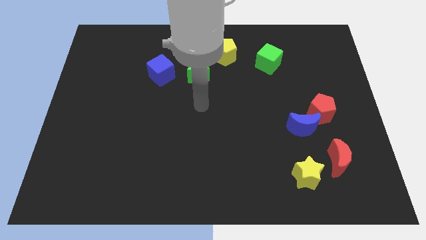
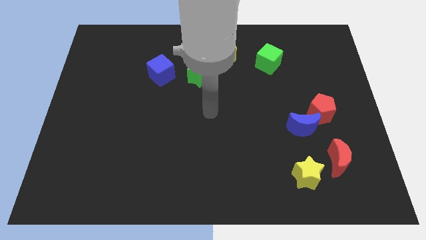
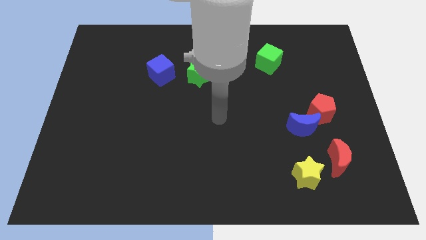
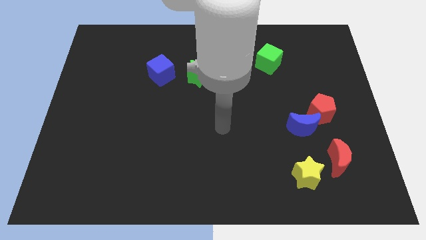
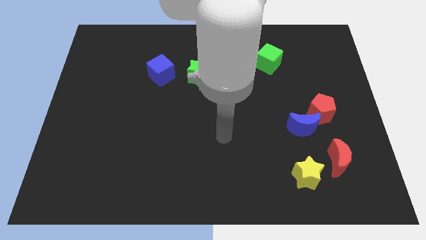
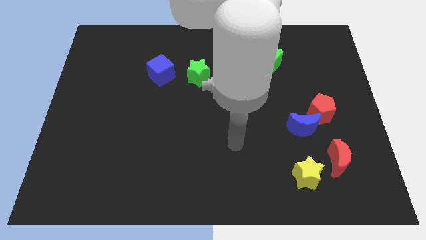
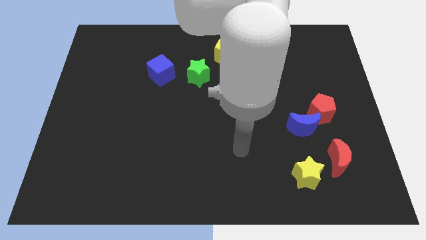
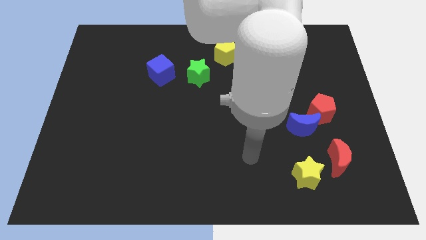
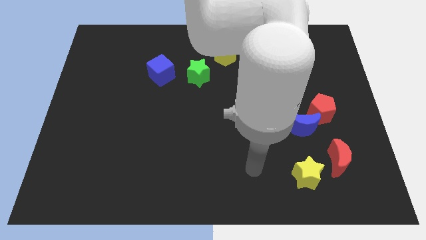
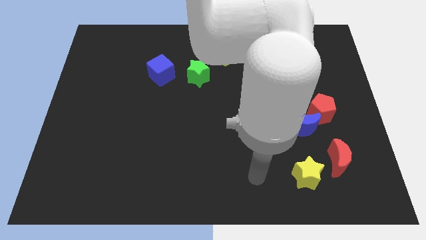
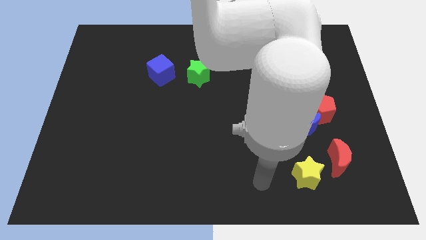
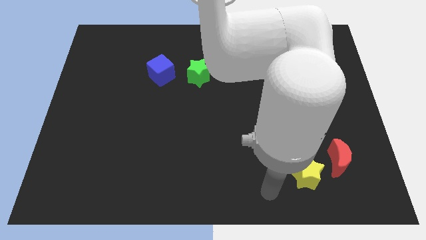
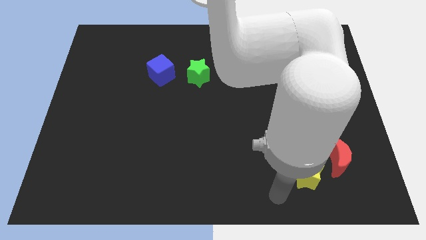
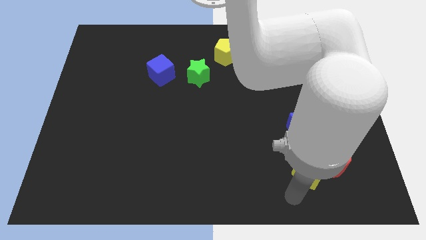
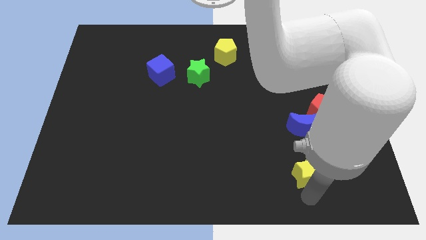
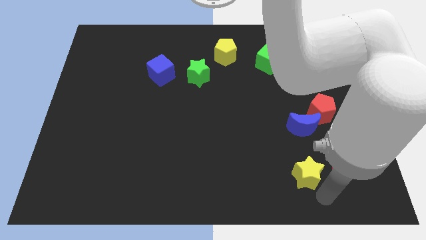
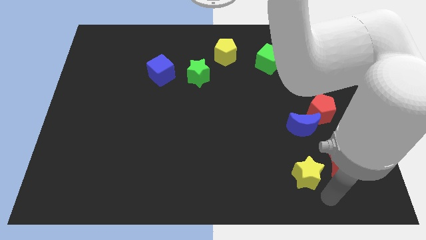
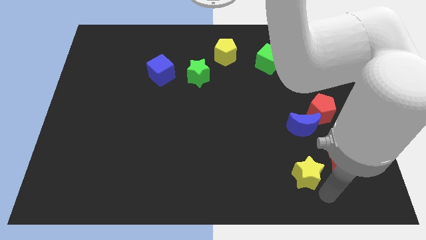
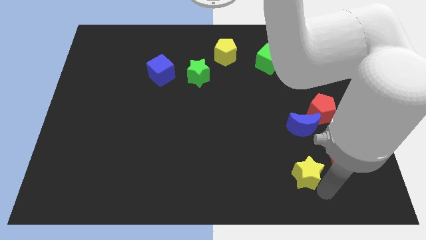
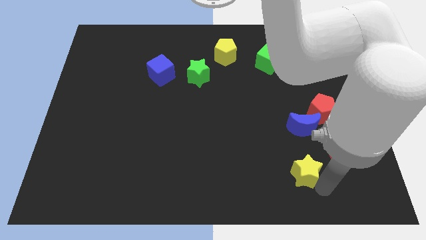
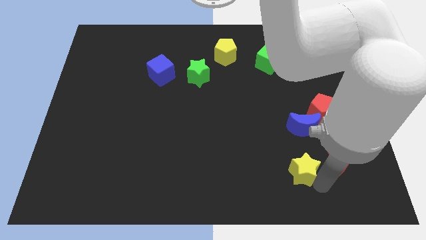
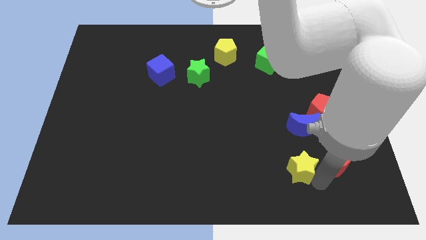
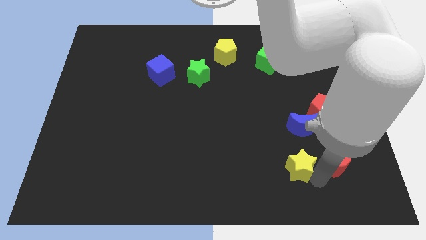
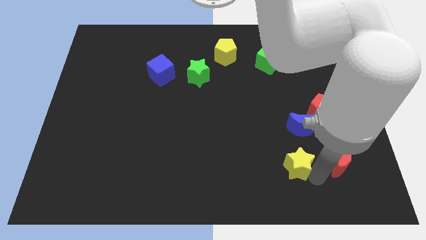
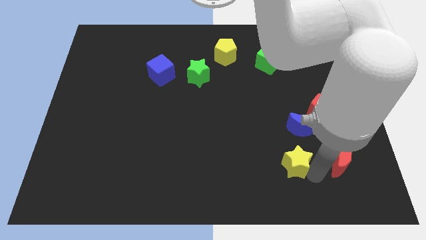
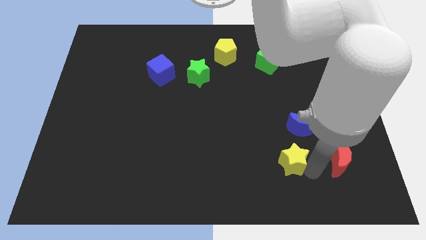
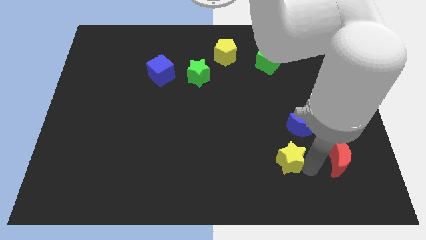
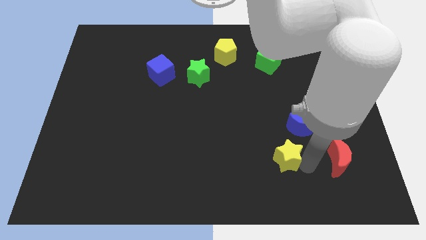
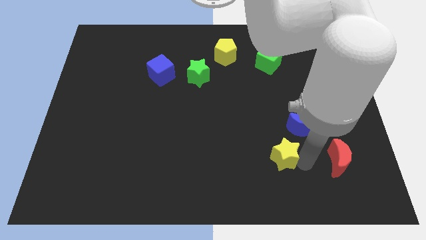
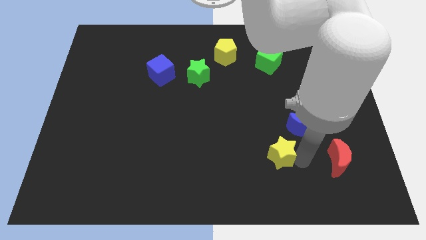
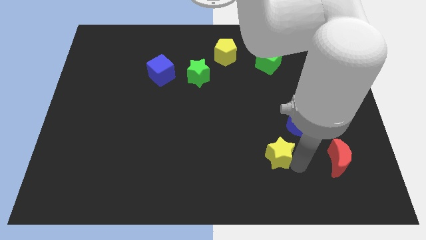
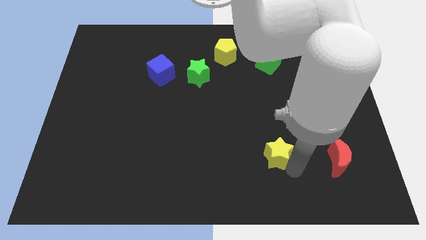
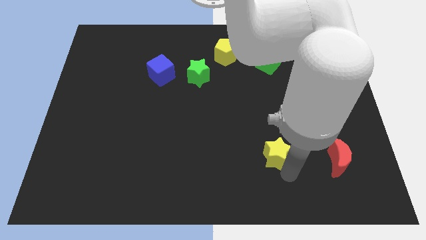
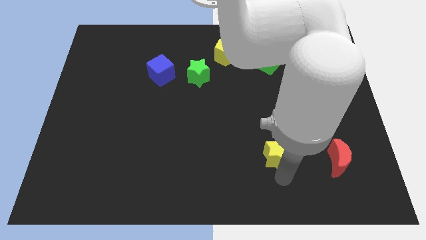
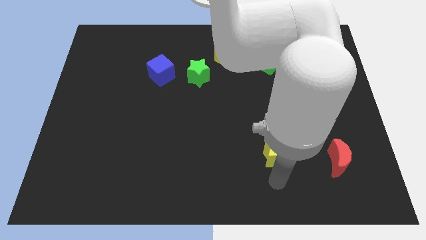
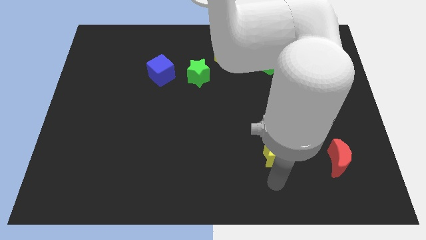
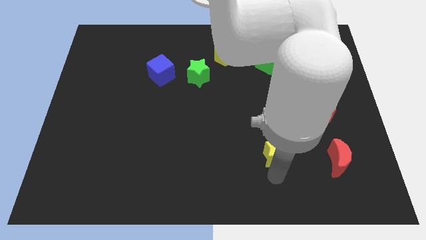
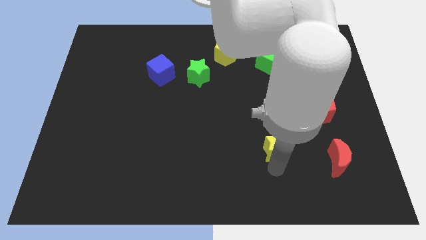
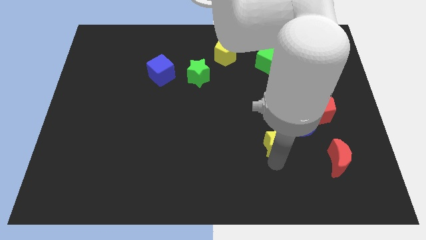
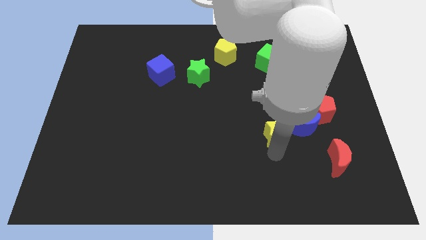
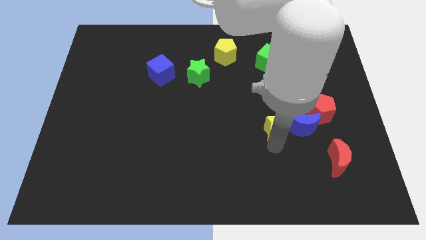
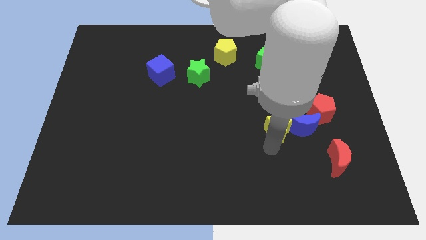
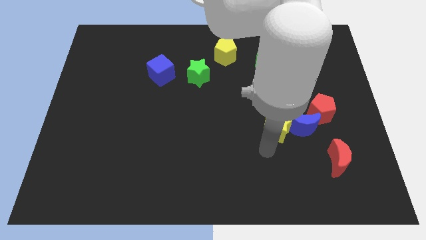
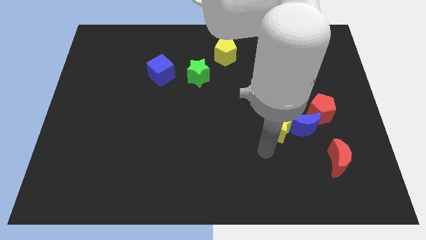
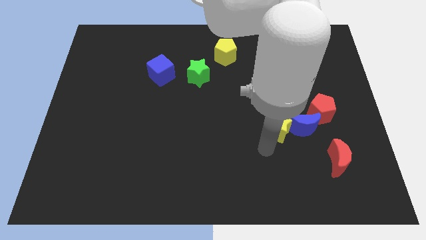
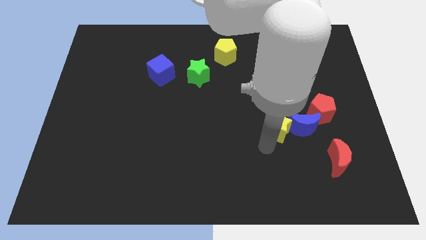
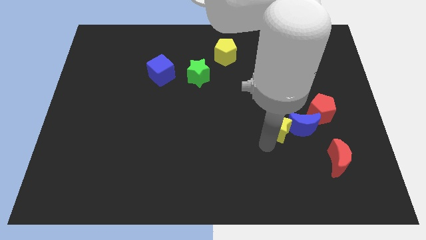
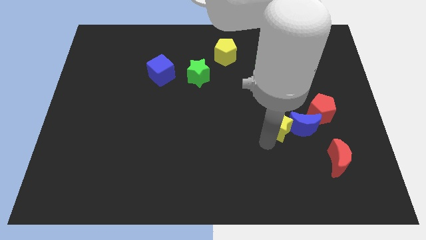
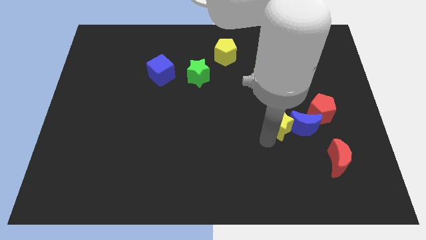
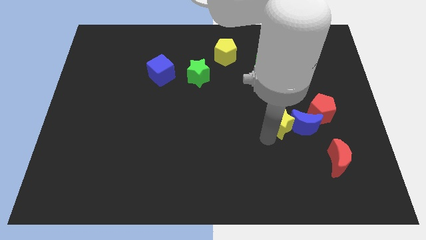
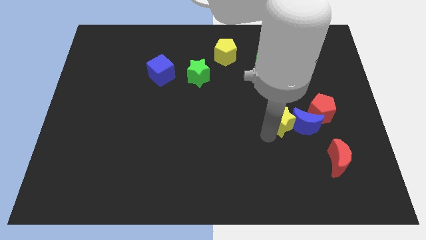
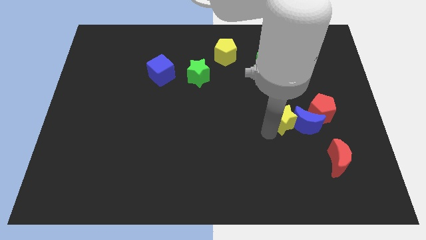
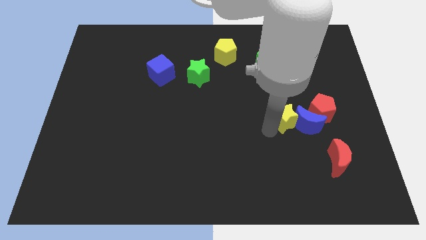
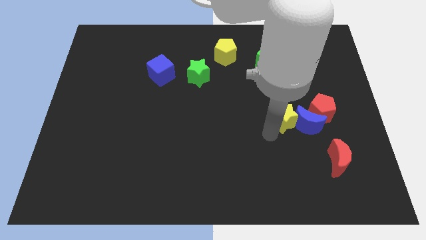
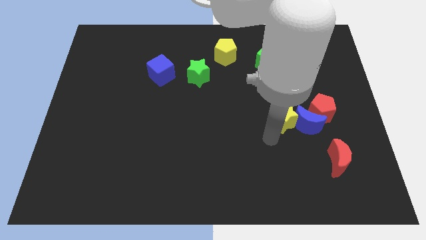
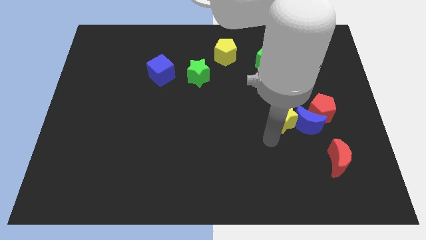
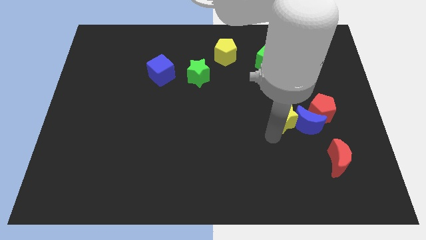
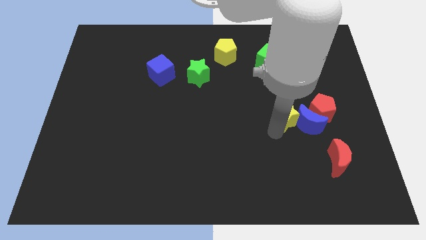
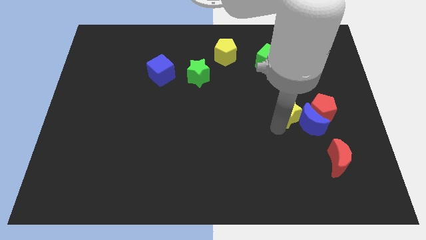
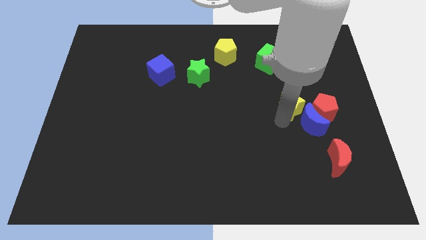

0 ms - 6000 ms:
put the yellow star above the blue moon

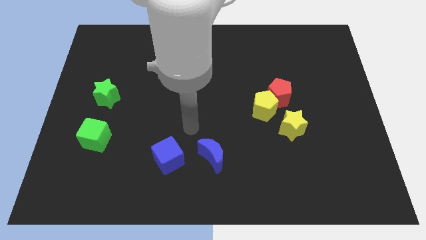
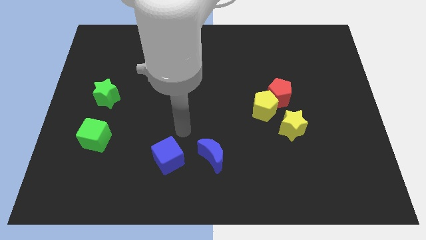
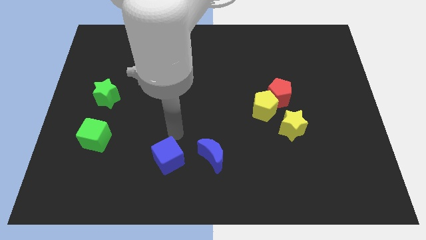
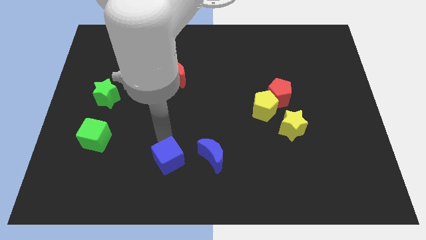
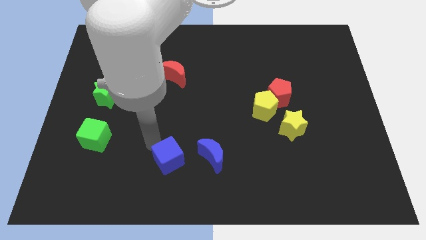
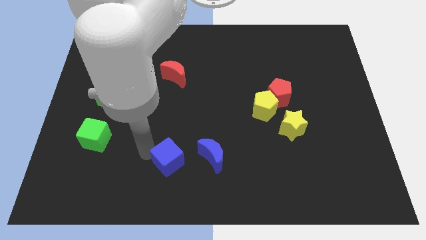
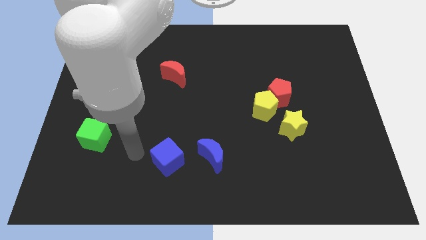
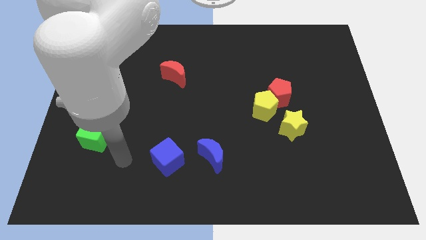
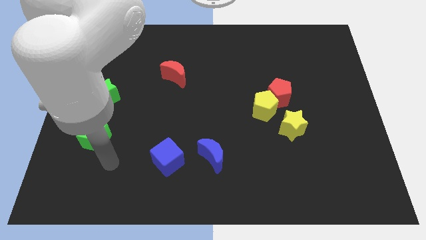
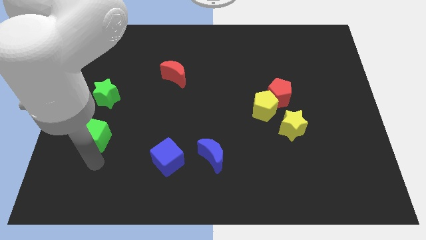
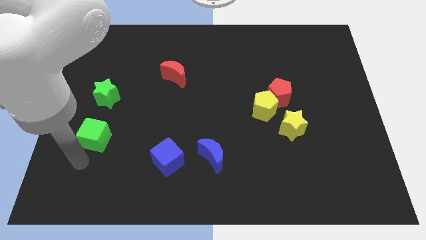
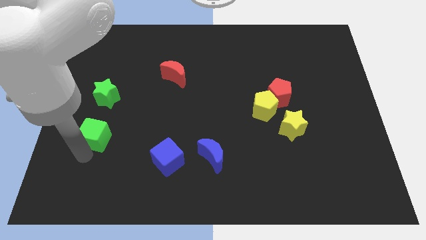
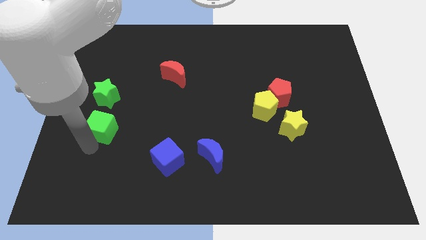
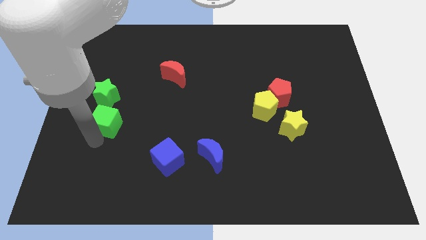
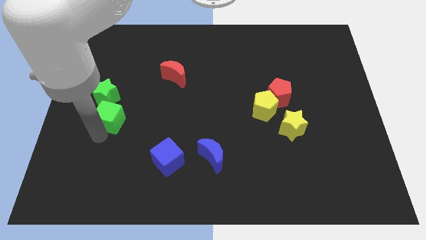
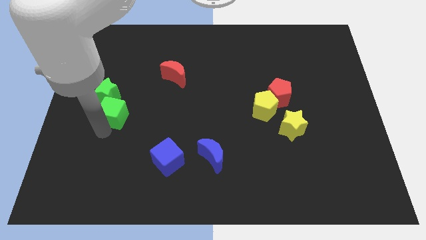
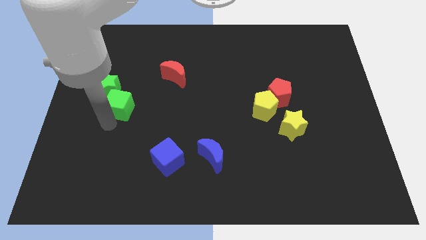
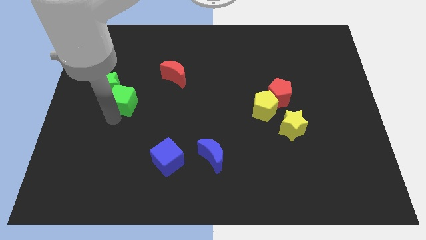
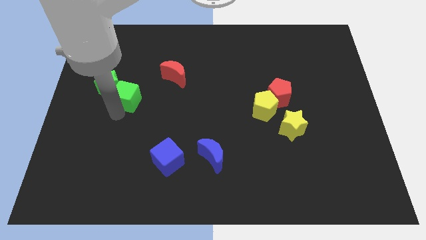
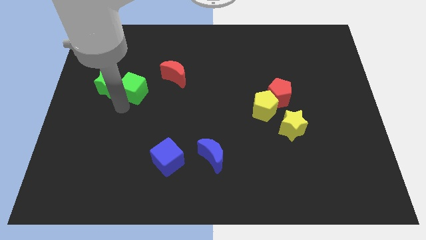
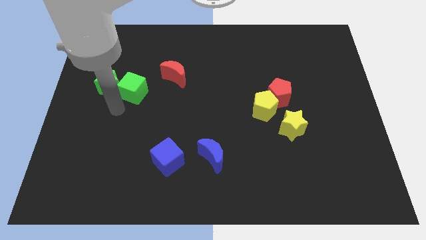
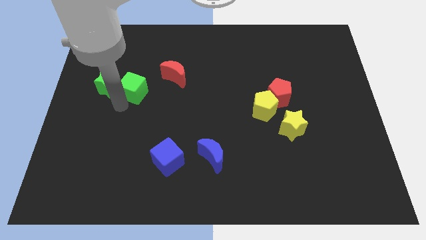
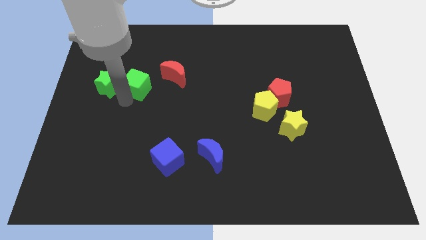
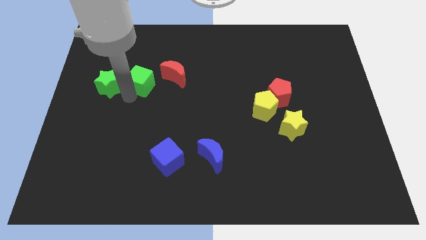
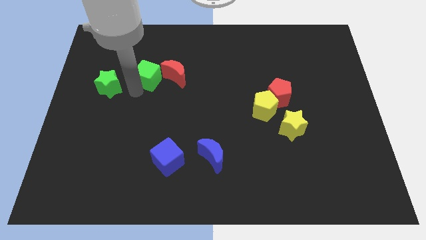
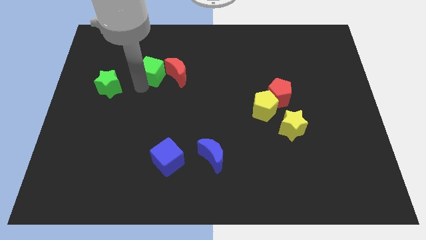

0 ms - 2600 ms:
move the green cube to the top left side of the red moon
